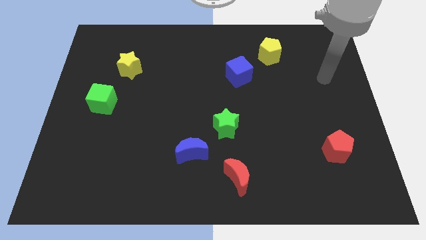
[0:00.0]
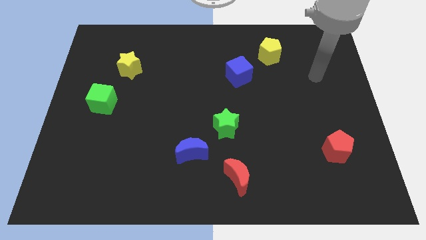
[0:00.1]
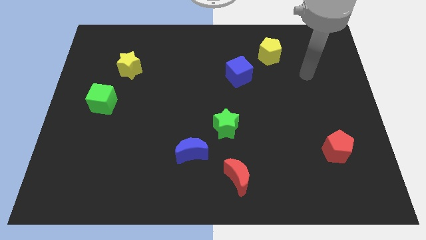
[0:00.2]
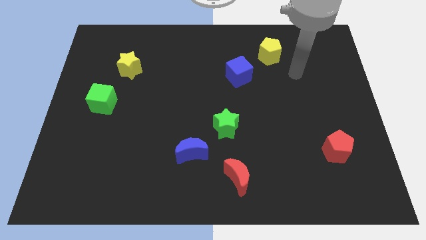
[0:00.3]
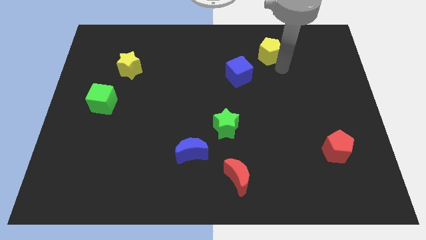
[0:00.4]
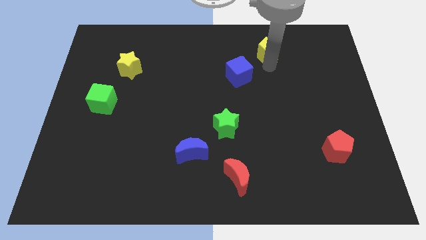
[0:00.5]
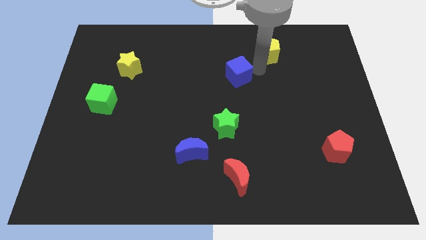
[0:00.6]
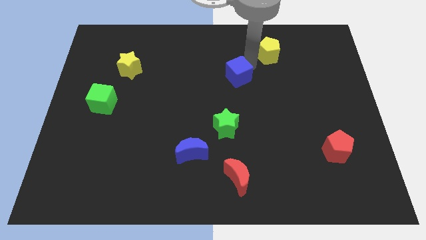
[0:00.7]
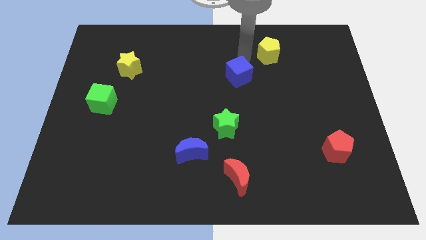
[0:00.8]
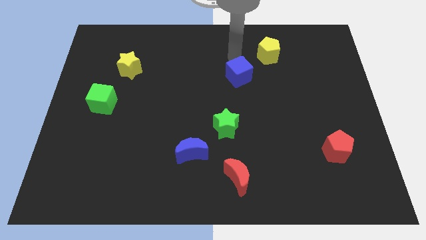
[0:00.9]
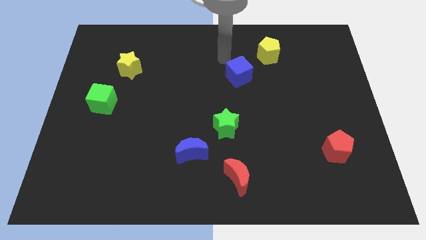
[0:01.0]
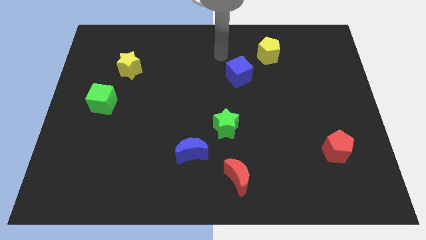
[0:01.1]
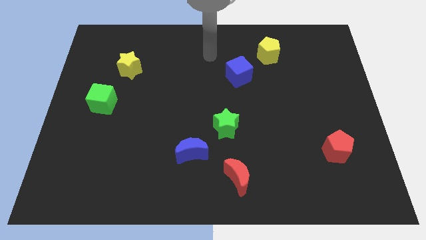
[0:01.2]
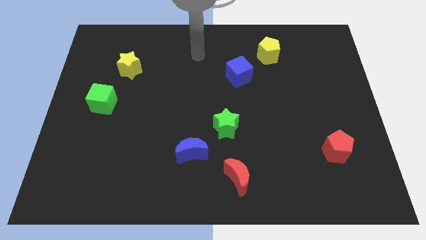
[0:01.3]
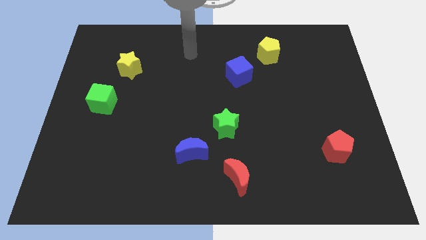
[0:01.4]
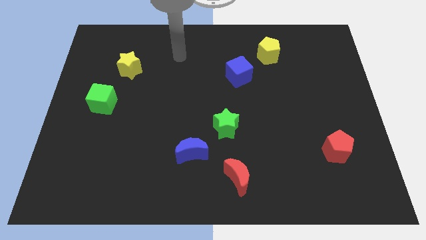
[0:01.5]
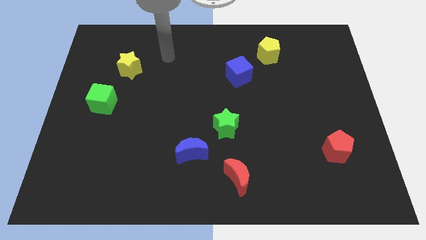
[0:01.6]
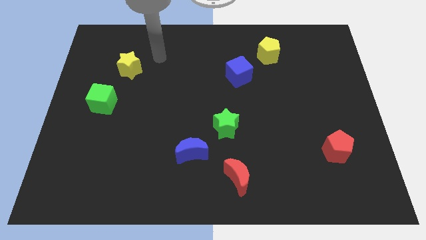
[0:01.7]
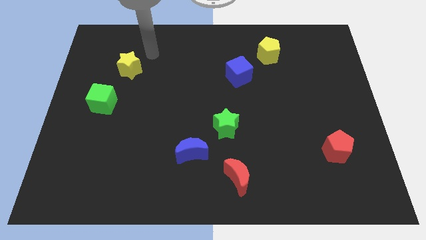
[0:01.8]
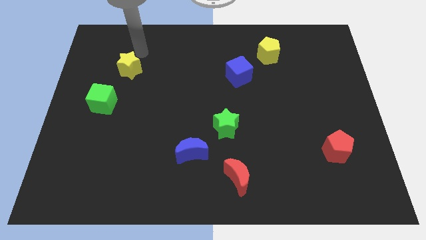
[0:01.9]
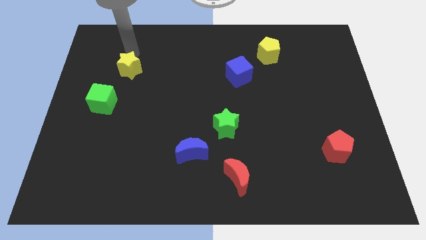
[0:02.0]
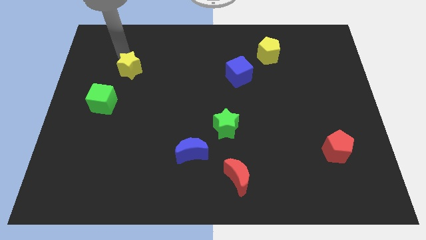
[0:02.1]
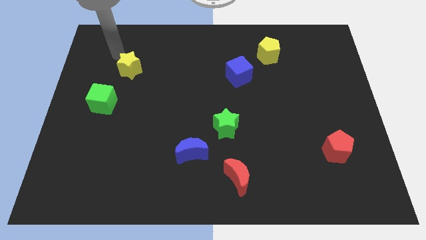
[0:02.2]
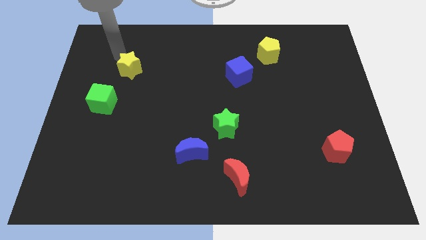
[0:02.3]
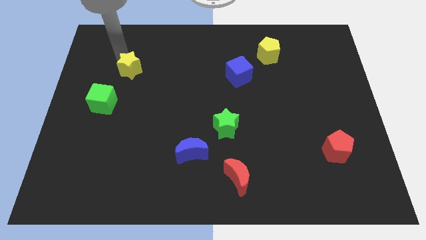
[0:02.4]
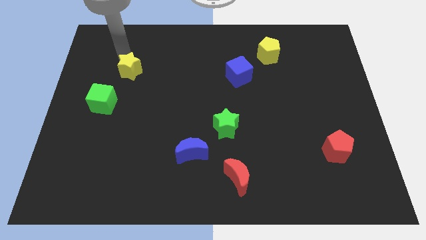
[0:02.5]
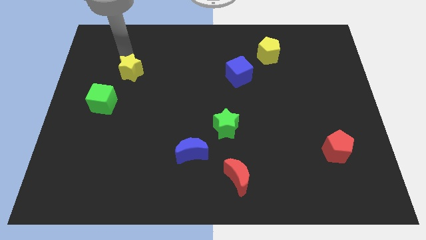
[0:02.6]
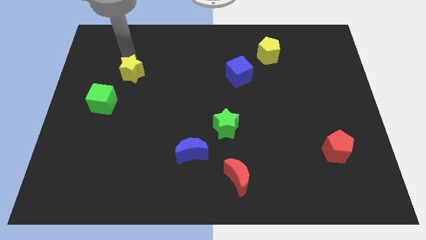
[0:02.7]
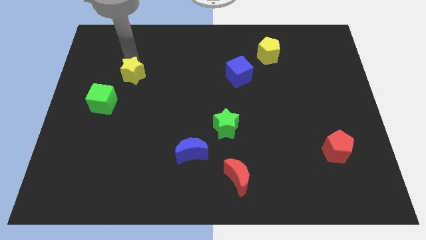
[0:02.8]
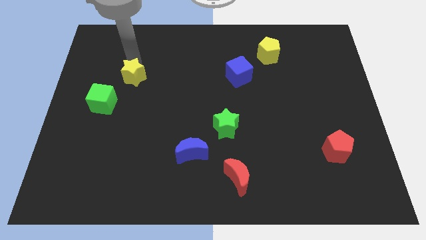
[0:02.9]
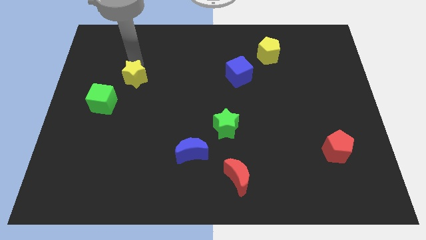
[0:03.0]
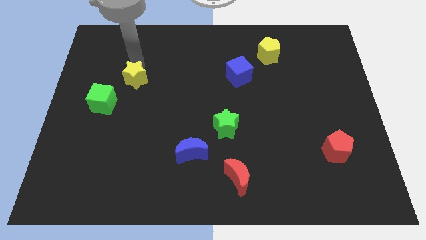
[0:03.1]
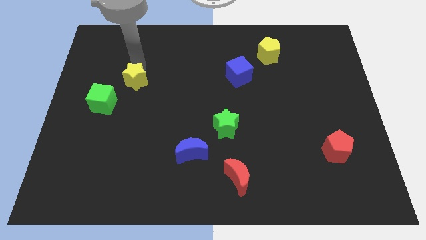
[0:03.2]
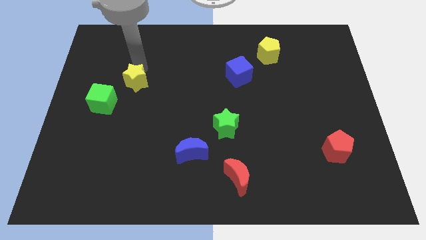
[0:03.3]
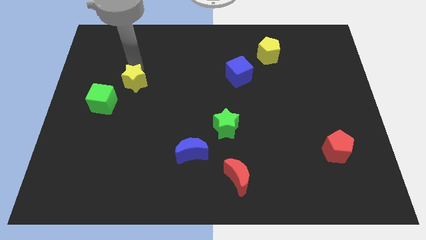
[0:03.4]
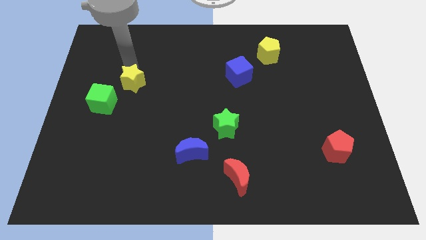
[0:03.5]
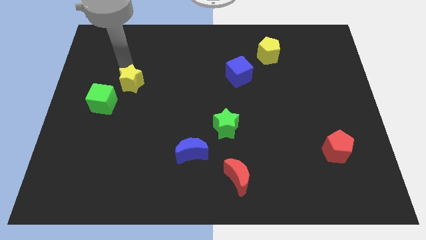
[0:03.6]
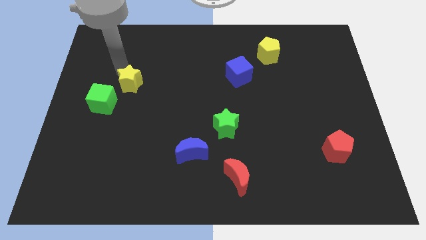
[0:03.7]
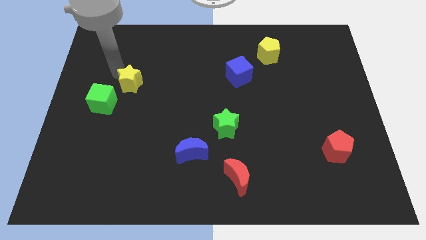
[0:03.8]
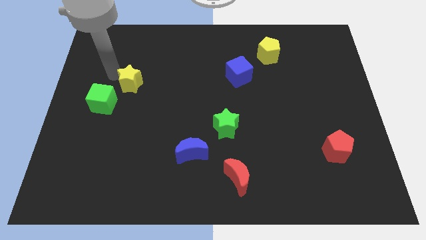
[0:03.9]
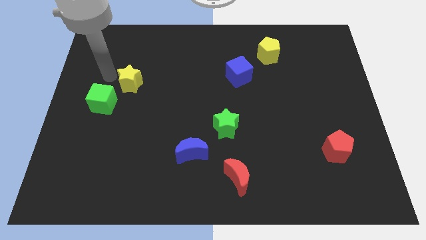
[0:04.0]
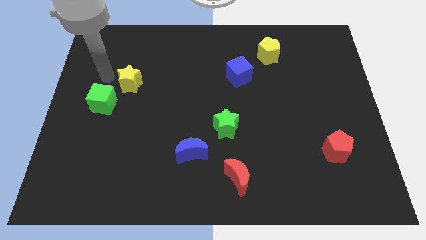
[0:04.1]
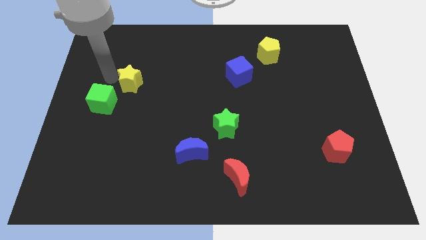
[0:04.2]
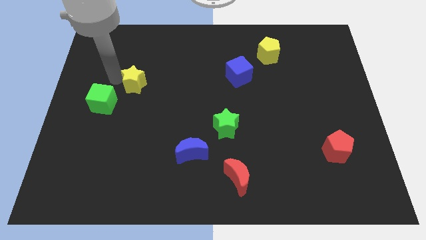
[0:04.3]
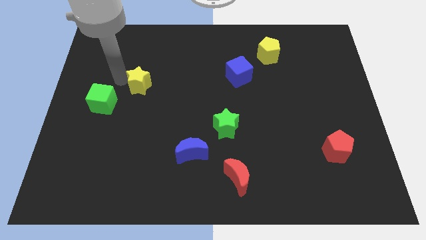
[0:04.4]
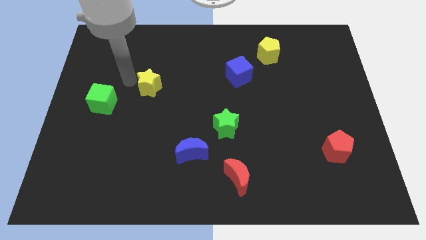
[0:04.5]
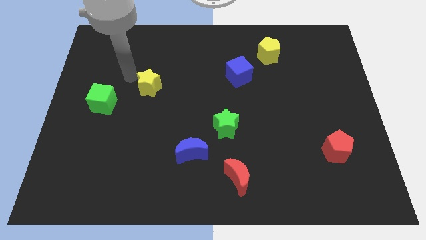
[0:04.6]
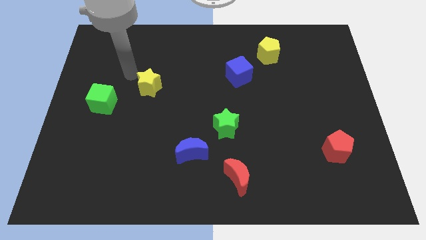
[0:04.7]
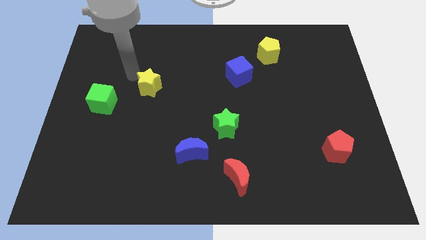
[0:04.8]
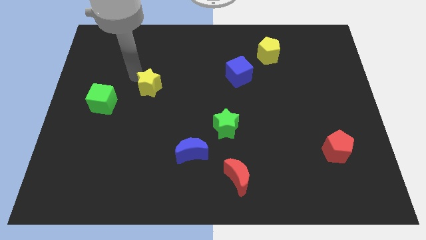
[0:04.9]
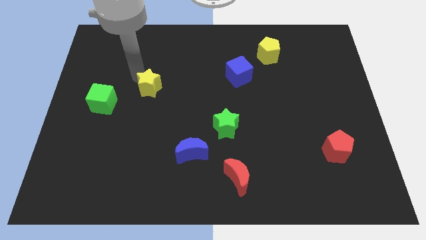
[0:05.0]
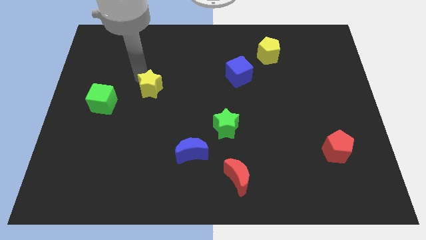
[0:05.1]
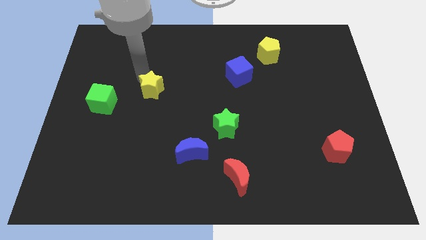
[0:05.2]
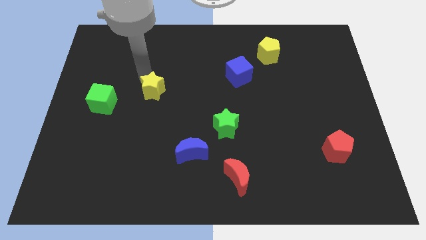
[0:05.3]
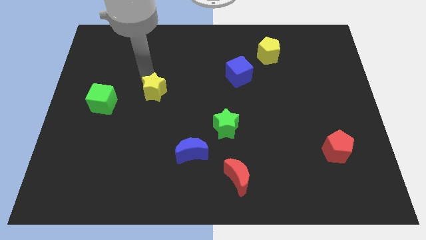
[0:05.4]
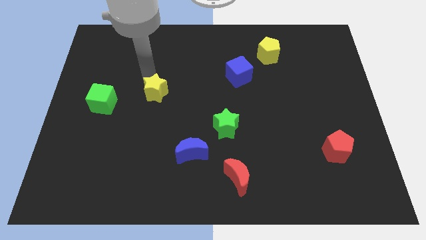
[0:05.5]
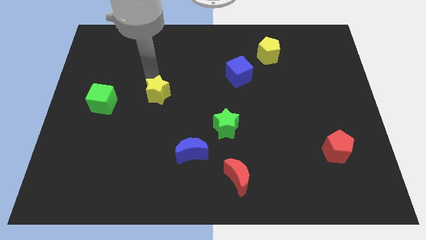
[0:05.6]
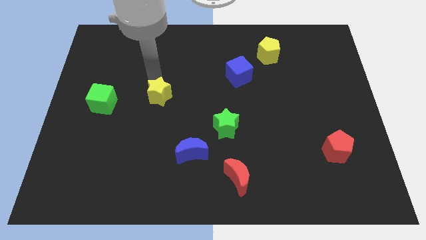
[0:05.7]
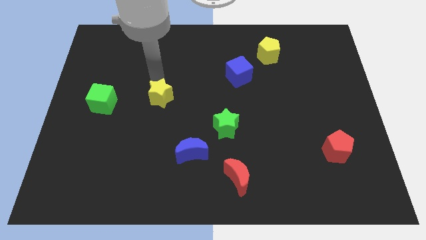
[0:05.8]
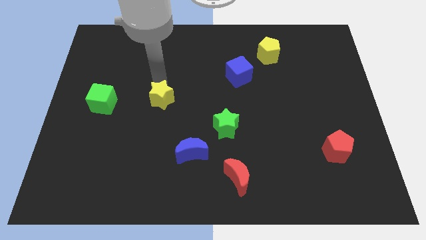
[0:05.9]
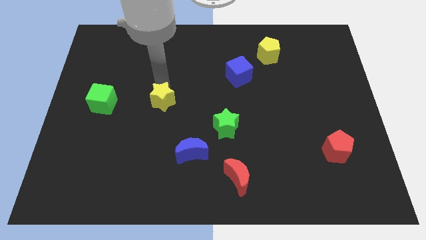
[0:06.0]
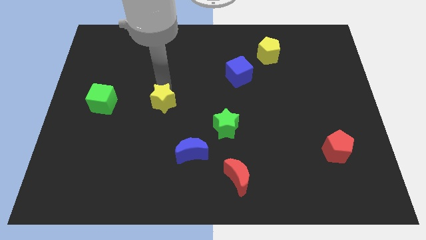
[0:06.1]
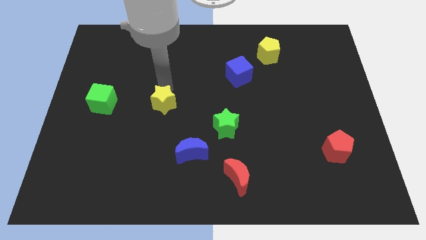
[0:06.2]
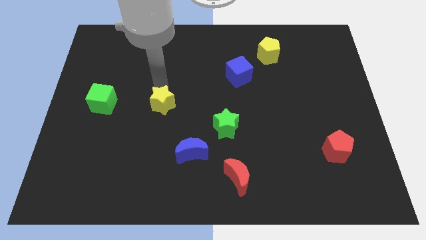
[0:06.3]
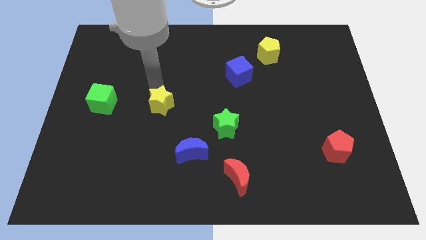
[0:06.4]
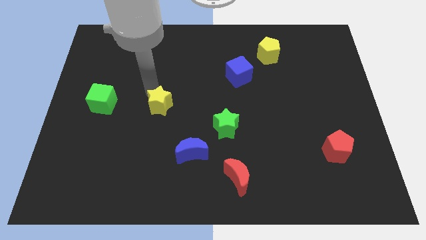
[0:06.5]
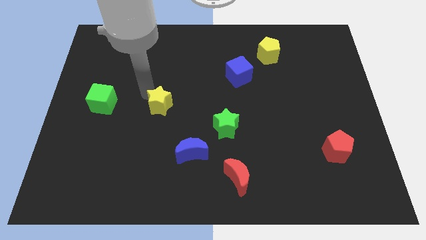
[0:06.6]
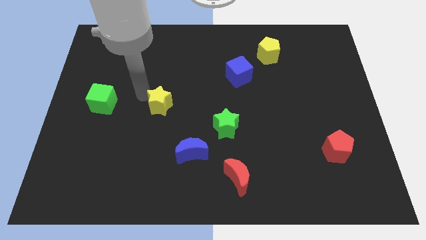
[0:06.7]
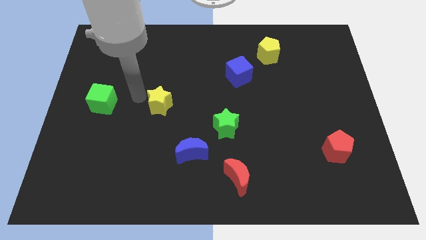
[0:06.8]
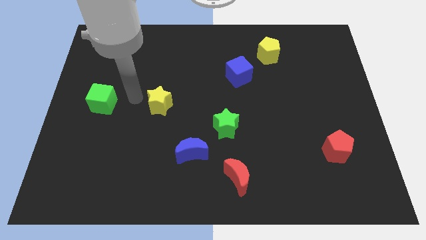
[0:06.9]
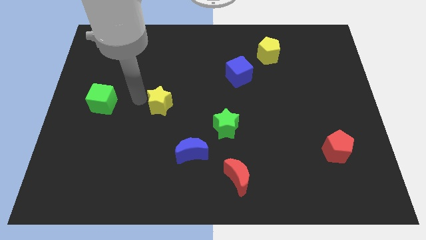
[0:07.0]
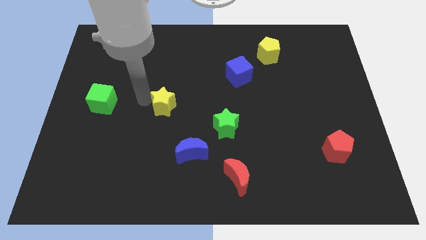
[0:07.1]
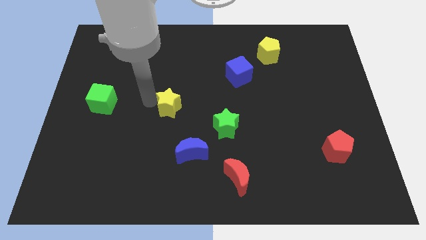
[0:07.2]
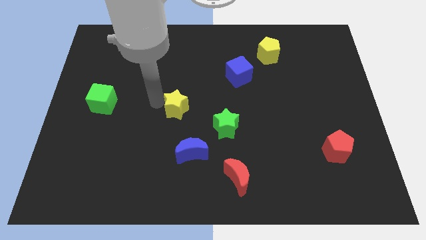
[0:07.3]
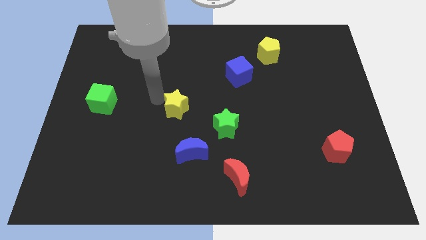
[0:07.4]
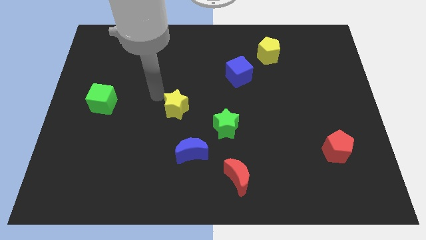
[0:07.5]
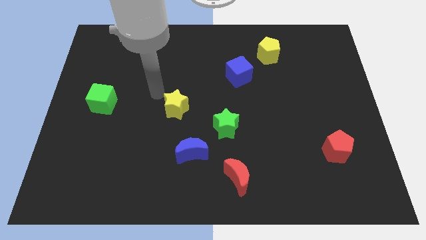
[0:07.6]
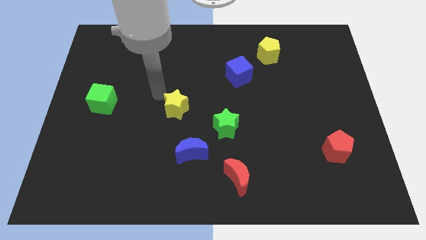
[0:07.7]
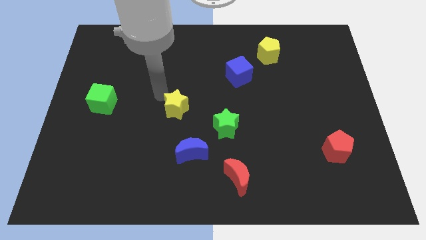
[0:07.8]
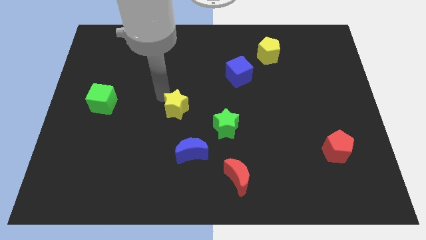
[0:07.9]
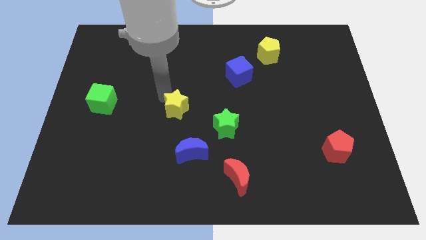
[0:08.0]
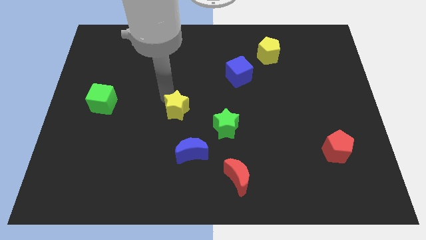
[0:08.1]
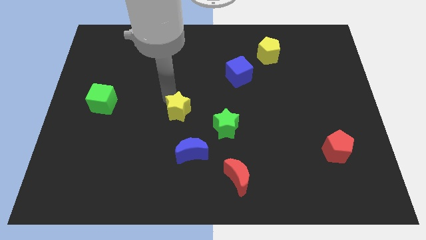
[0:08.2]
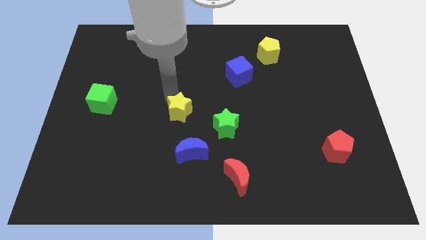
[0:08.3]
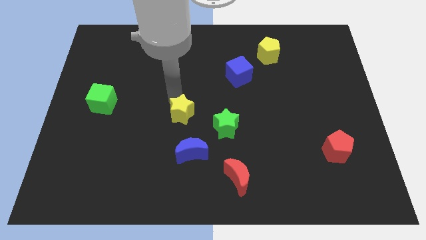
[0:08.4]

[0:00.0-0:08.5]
move the yellow star diagonally down and right
